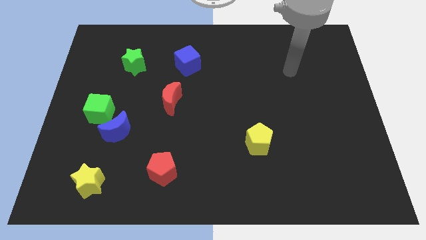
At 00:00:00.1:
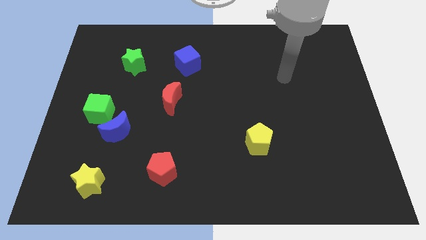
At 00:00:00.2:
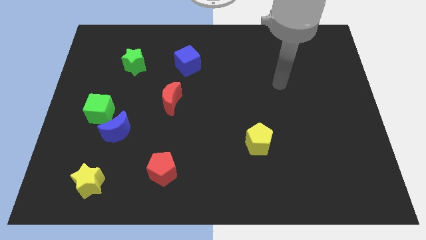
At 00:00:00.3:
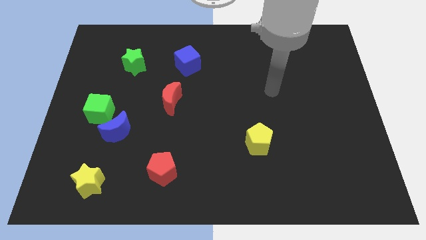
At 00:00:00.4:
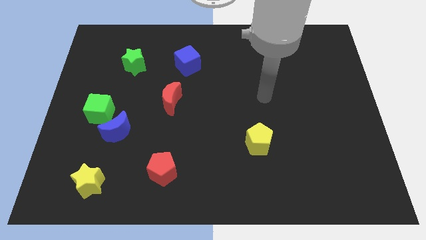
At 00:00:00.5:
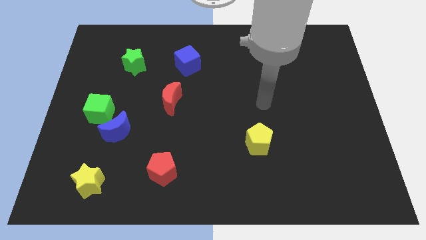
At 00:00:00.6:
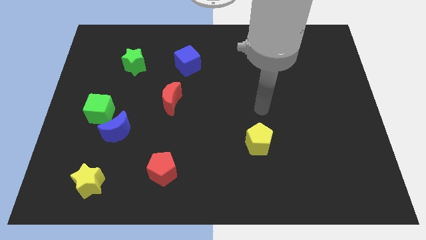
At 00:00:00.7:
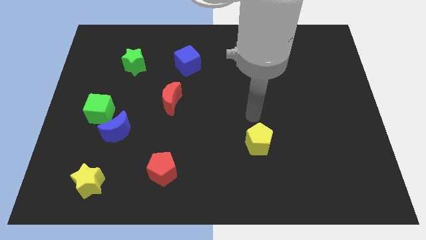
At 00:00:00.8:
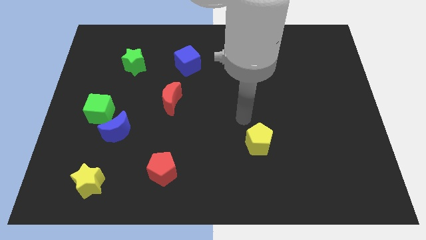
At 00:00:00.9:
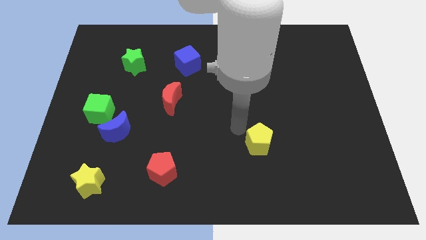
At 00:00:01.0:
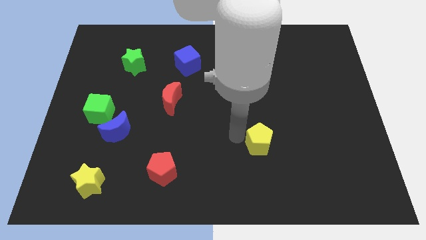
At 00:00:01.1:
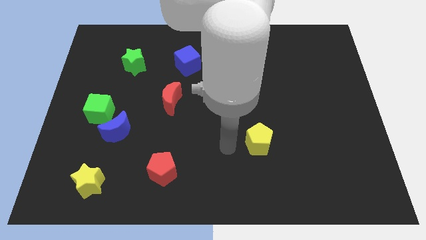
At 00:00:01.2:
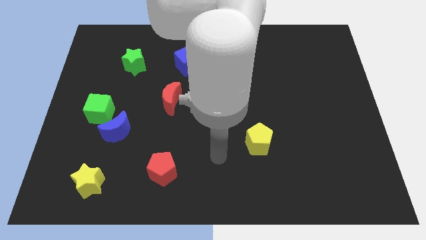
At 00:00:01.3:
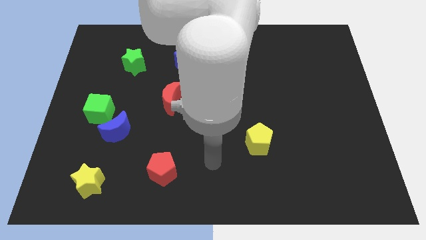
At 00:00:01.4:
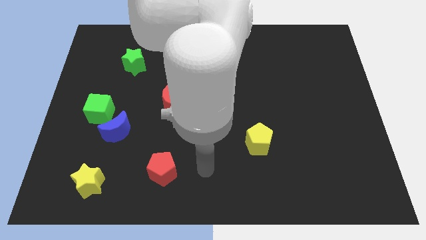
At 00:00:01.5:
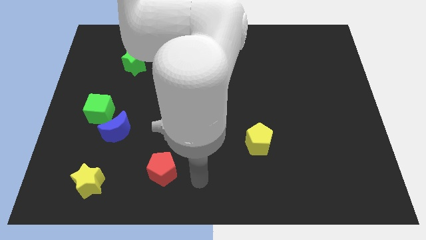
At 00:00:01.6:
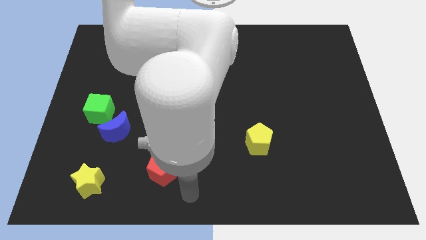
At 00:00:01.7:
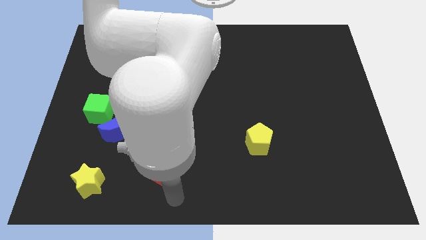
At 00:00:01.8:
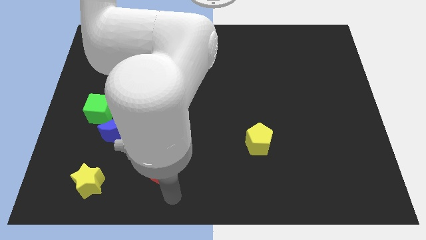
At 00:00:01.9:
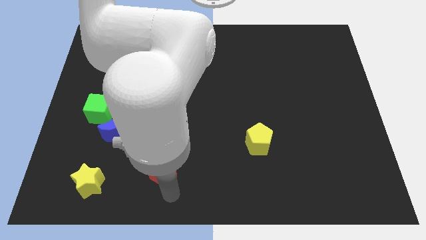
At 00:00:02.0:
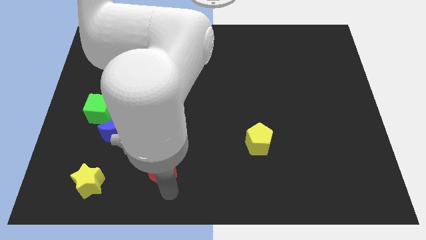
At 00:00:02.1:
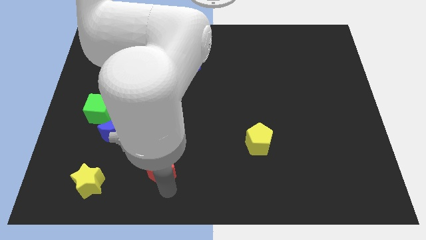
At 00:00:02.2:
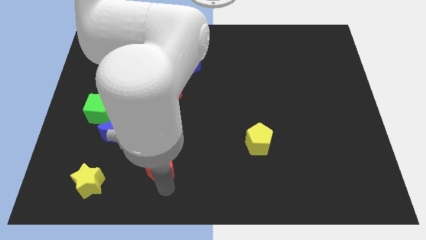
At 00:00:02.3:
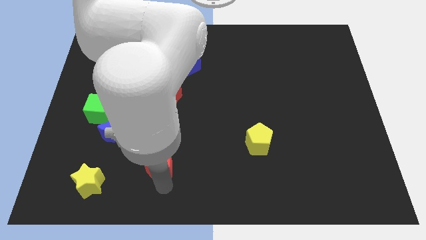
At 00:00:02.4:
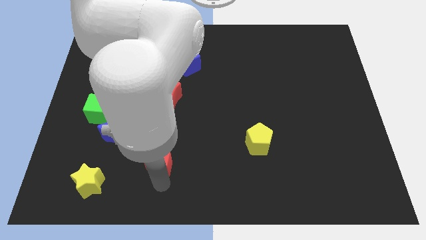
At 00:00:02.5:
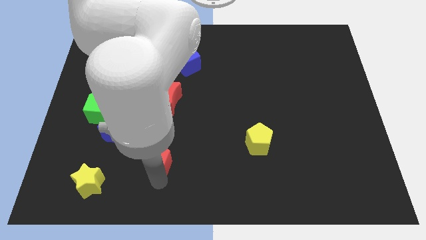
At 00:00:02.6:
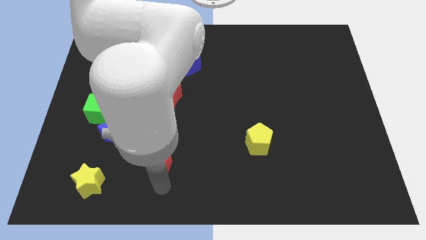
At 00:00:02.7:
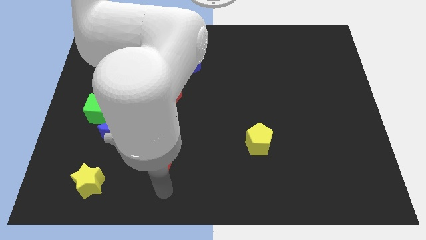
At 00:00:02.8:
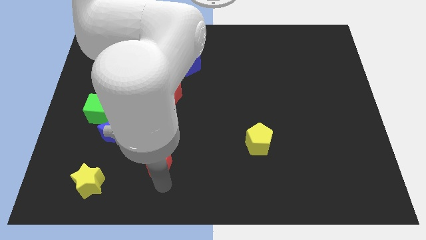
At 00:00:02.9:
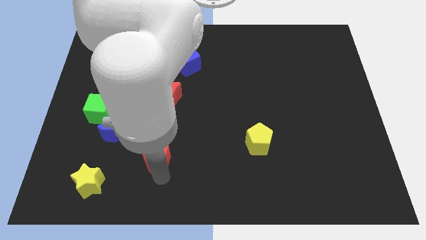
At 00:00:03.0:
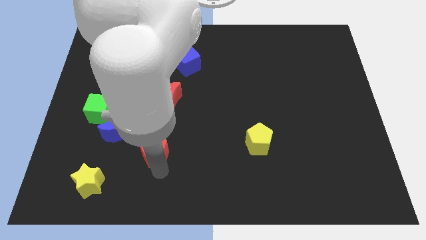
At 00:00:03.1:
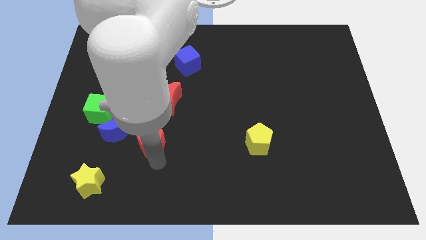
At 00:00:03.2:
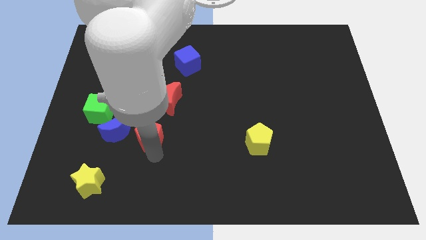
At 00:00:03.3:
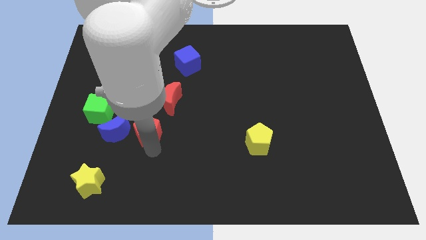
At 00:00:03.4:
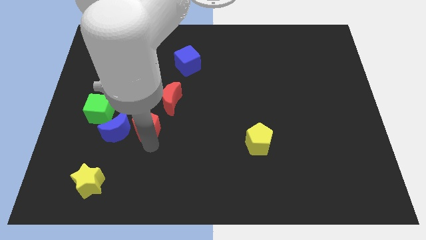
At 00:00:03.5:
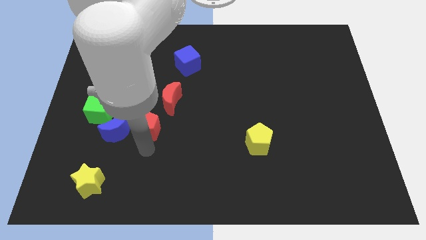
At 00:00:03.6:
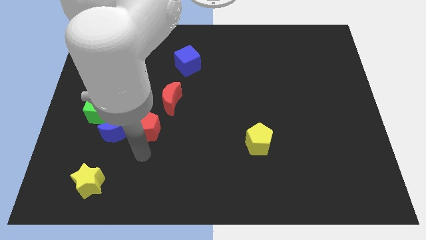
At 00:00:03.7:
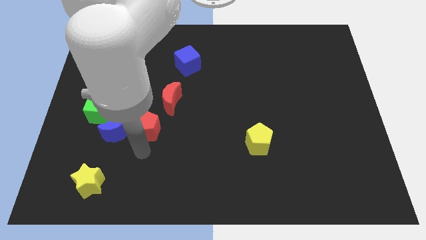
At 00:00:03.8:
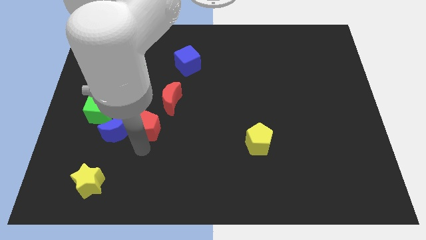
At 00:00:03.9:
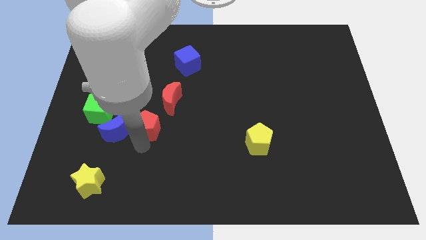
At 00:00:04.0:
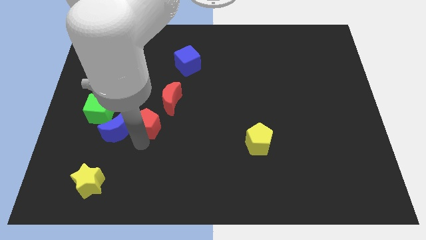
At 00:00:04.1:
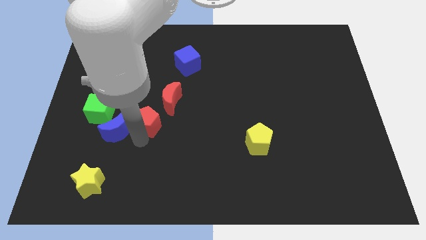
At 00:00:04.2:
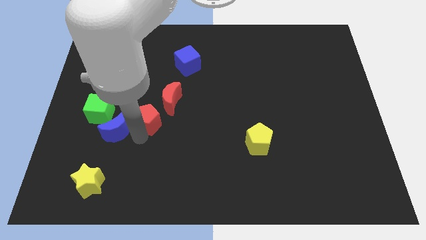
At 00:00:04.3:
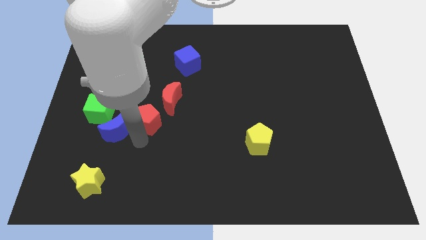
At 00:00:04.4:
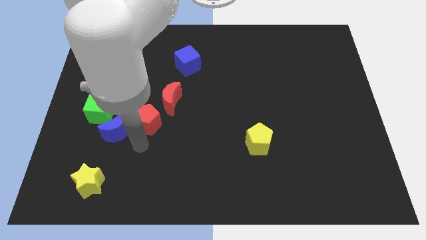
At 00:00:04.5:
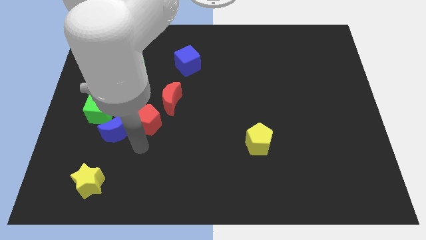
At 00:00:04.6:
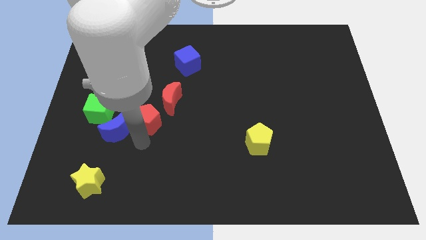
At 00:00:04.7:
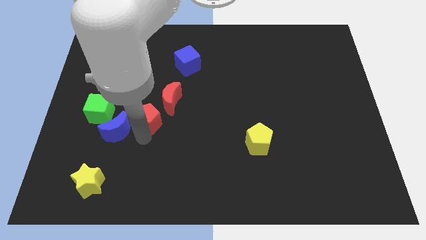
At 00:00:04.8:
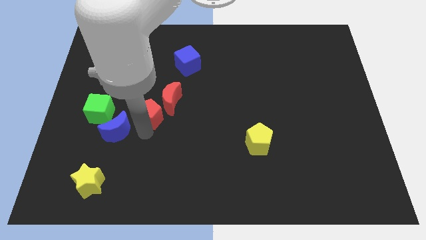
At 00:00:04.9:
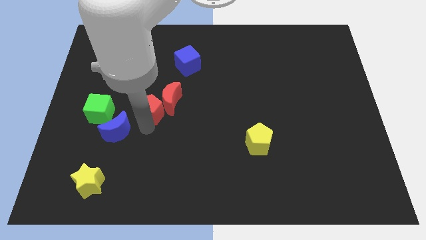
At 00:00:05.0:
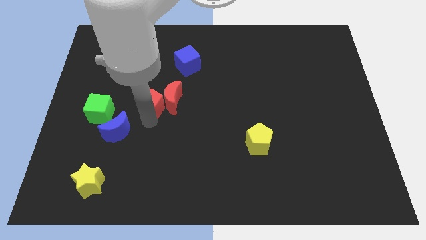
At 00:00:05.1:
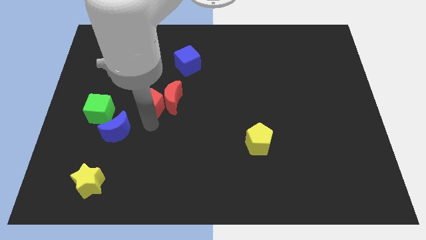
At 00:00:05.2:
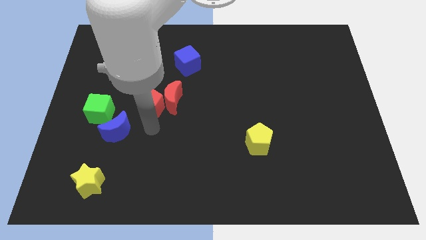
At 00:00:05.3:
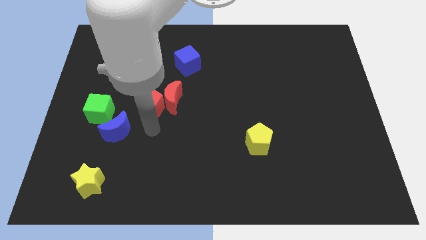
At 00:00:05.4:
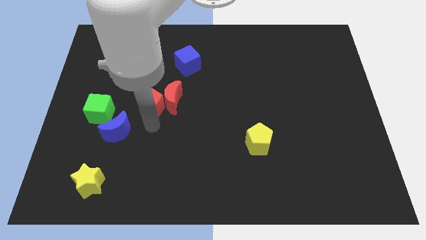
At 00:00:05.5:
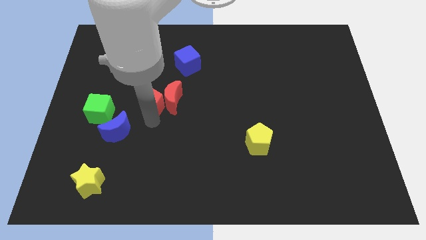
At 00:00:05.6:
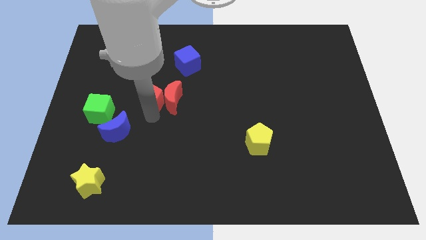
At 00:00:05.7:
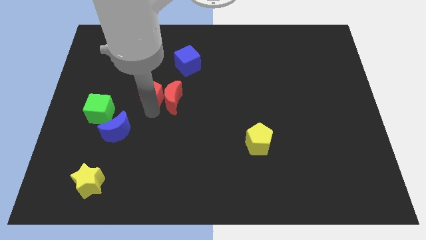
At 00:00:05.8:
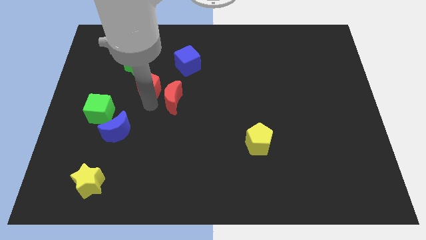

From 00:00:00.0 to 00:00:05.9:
push the red pentagon upwards

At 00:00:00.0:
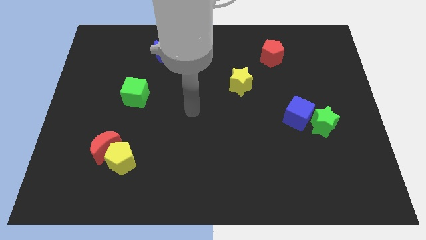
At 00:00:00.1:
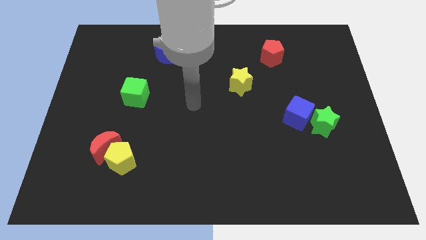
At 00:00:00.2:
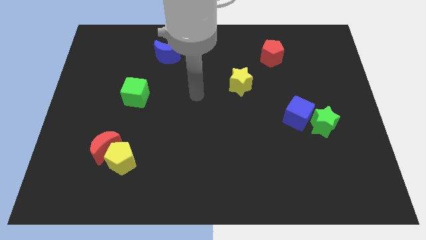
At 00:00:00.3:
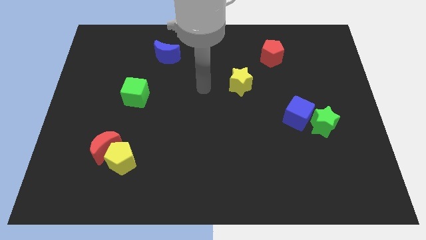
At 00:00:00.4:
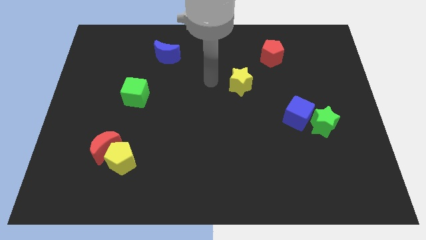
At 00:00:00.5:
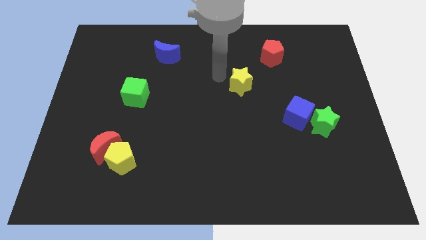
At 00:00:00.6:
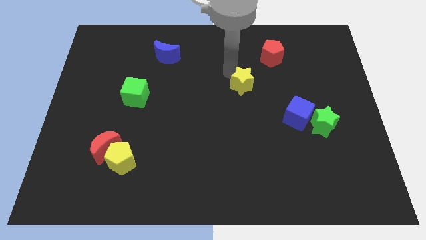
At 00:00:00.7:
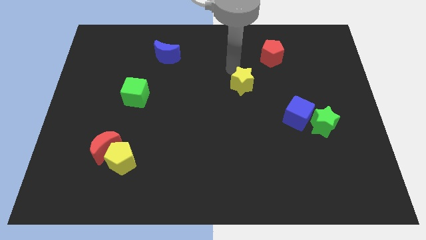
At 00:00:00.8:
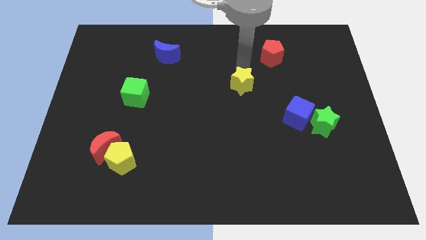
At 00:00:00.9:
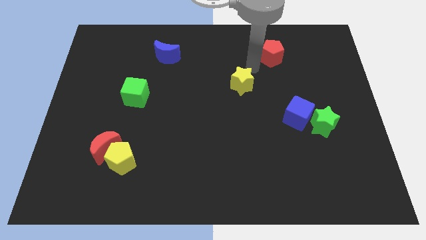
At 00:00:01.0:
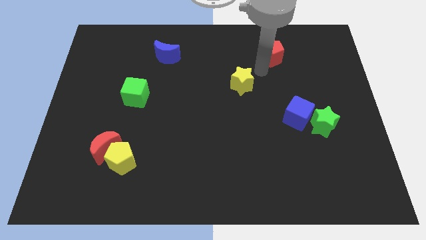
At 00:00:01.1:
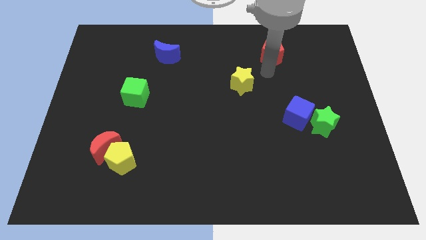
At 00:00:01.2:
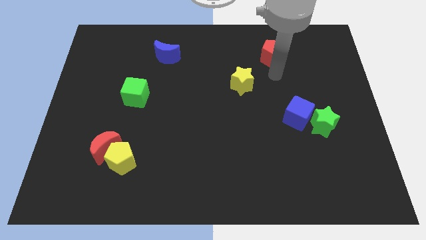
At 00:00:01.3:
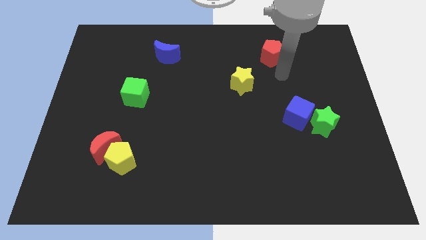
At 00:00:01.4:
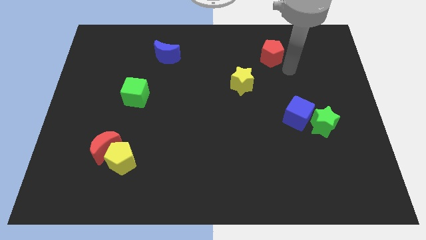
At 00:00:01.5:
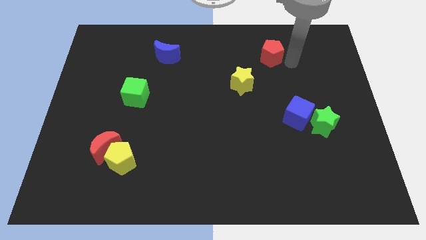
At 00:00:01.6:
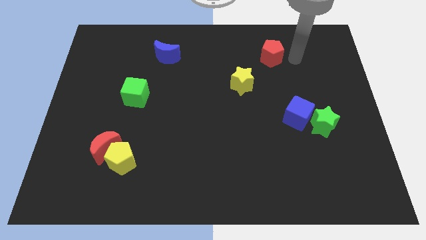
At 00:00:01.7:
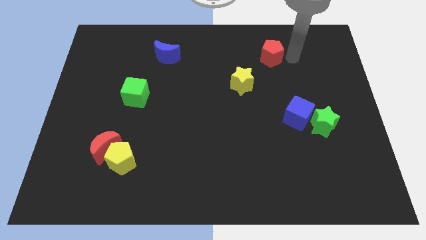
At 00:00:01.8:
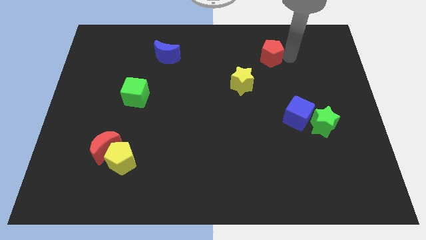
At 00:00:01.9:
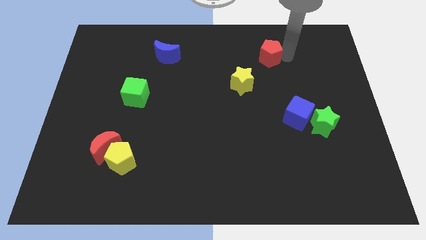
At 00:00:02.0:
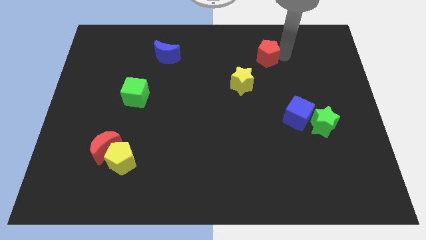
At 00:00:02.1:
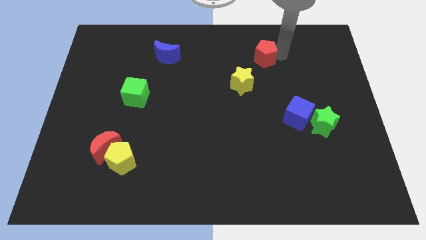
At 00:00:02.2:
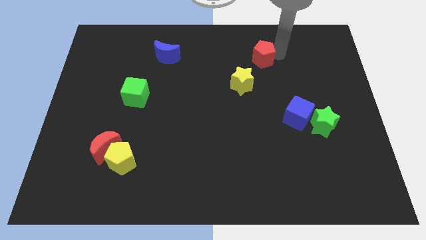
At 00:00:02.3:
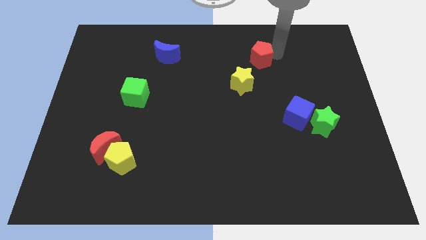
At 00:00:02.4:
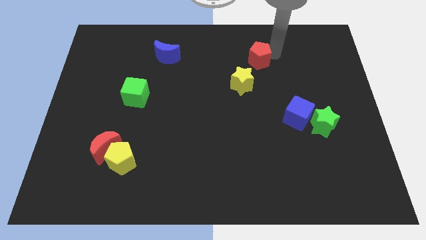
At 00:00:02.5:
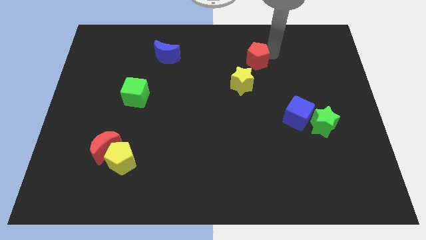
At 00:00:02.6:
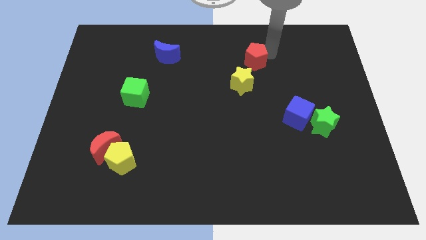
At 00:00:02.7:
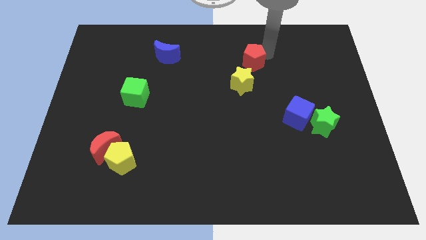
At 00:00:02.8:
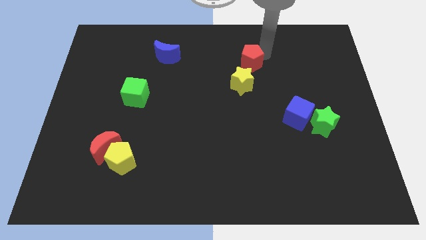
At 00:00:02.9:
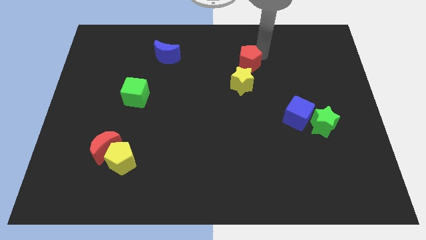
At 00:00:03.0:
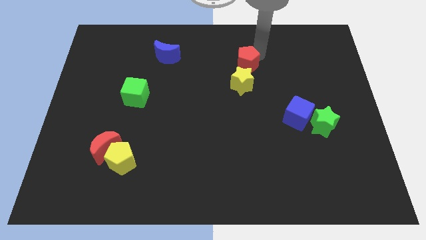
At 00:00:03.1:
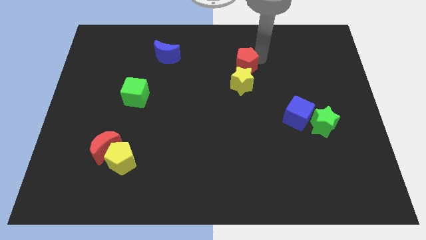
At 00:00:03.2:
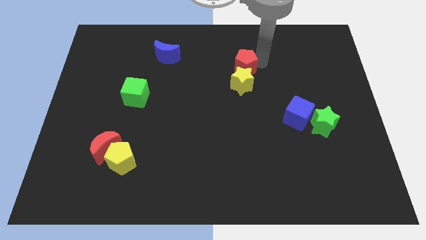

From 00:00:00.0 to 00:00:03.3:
move the red pentagon a little bit to the left
